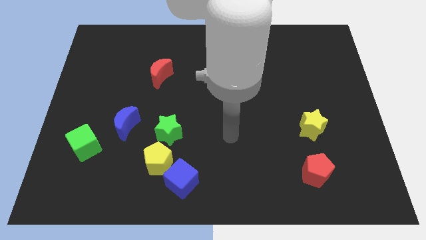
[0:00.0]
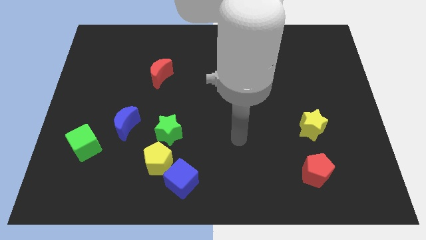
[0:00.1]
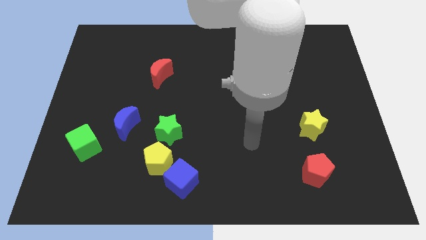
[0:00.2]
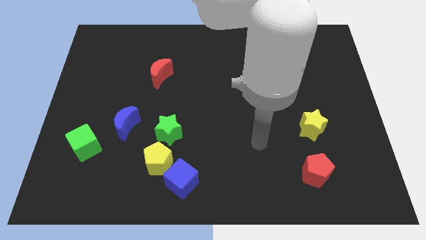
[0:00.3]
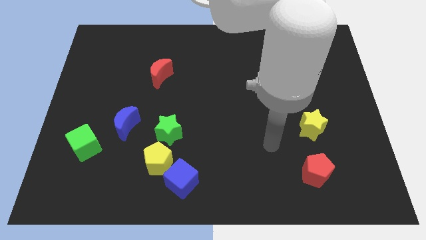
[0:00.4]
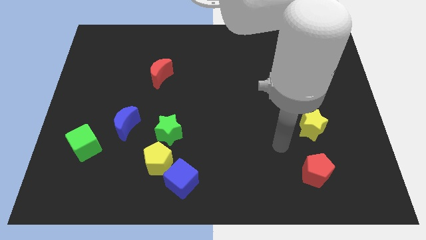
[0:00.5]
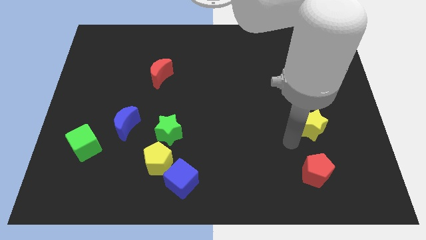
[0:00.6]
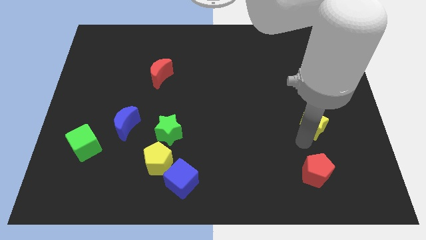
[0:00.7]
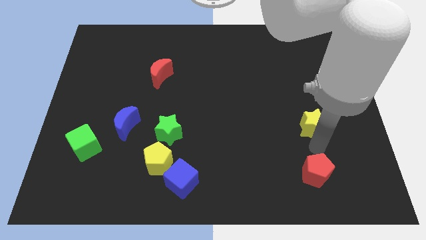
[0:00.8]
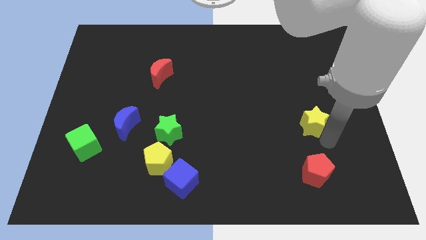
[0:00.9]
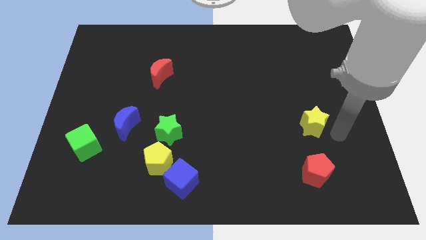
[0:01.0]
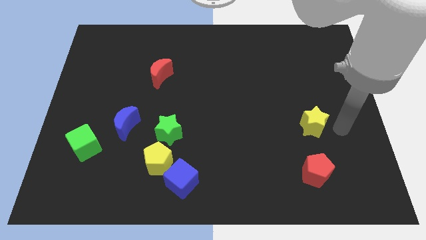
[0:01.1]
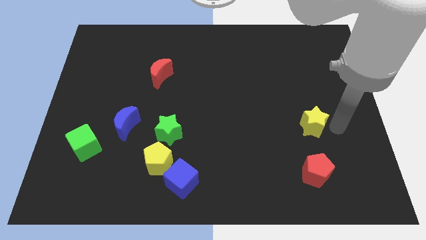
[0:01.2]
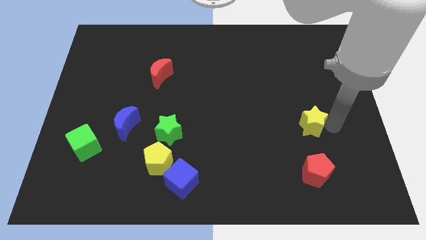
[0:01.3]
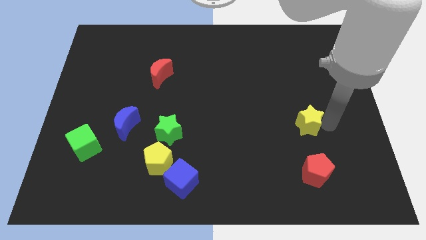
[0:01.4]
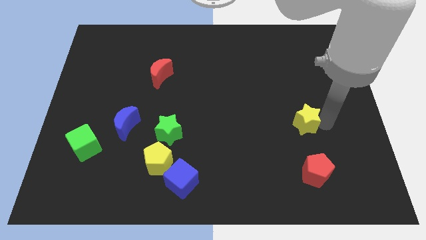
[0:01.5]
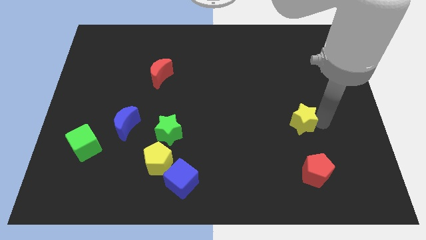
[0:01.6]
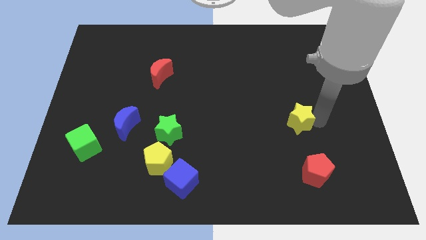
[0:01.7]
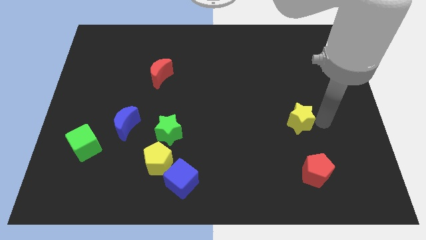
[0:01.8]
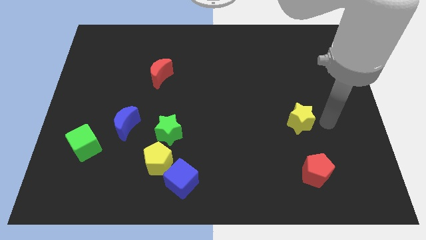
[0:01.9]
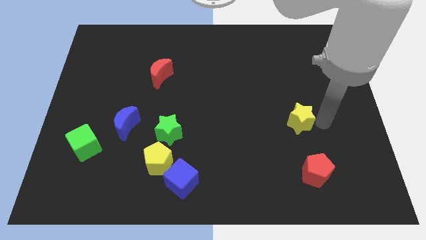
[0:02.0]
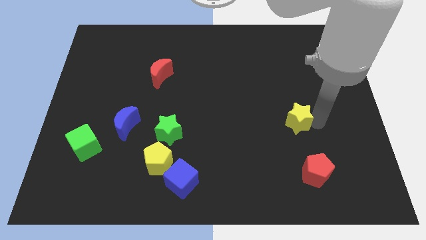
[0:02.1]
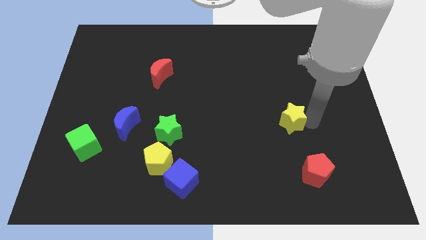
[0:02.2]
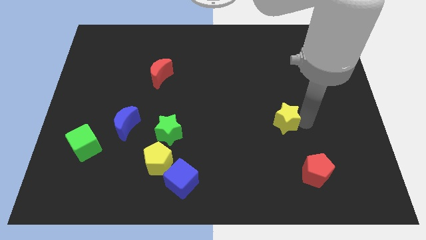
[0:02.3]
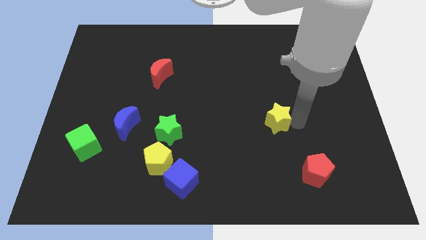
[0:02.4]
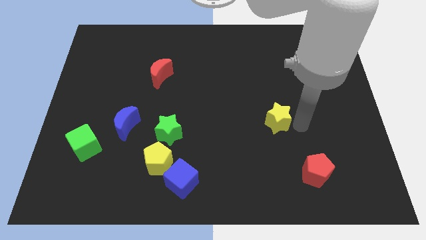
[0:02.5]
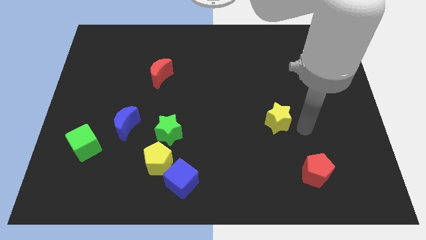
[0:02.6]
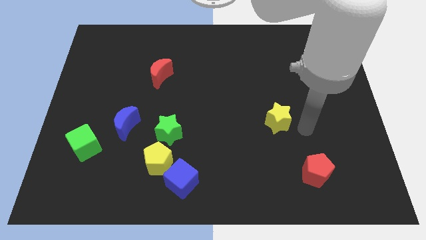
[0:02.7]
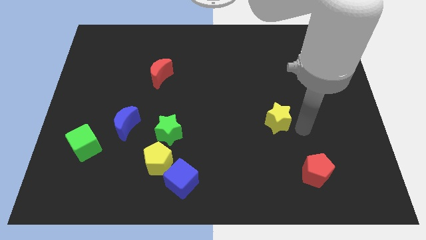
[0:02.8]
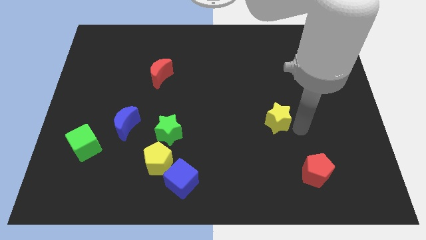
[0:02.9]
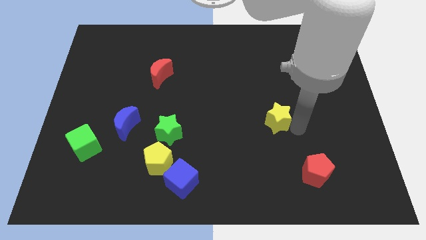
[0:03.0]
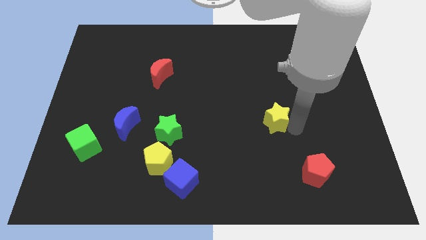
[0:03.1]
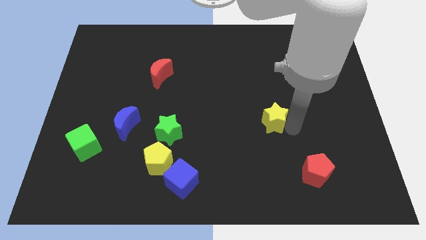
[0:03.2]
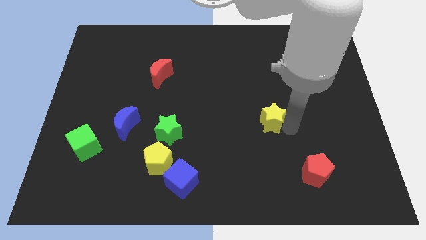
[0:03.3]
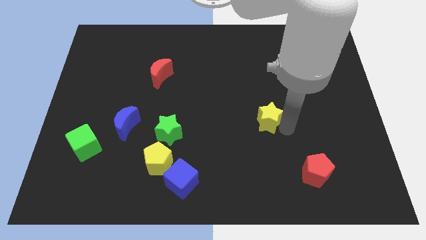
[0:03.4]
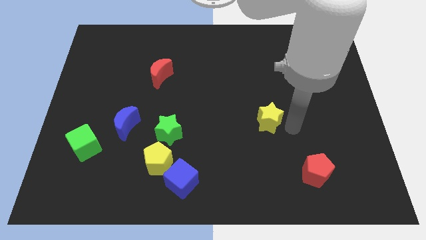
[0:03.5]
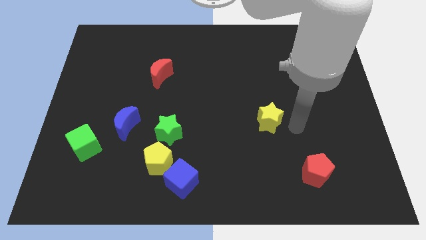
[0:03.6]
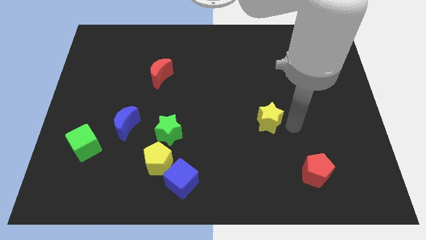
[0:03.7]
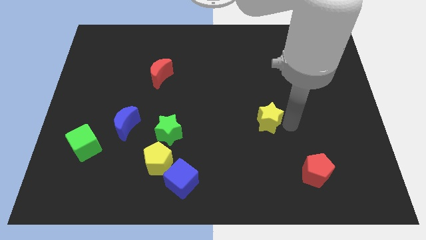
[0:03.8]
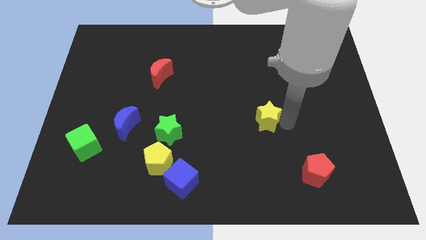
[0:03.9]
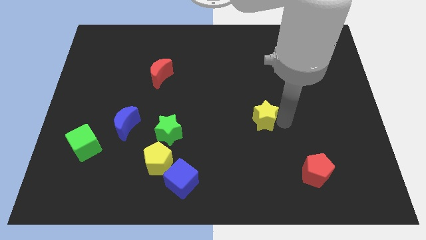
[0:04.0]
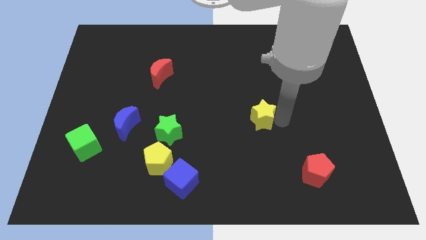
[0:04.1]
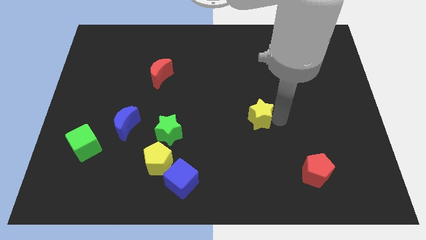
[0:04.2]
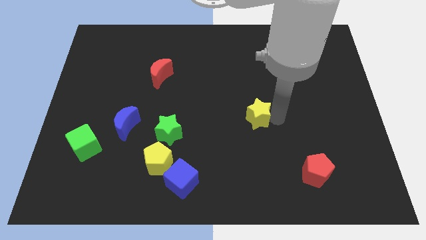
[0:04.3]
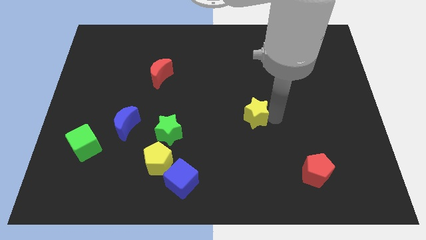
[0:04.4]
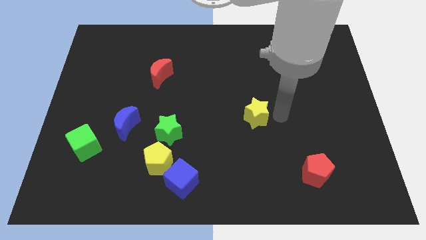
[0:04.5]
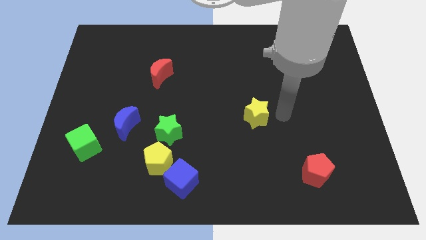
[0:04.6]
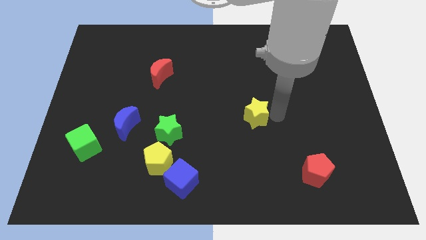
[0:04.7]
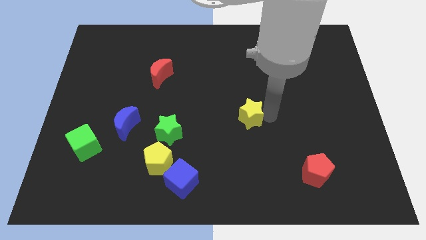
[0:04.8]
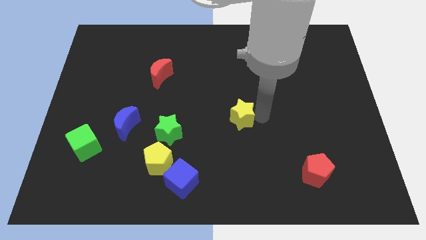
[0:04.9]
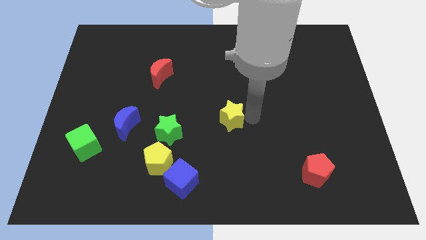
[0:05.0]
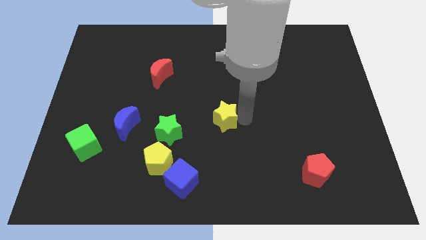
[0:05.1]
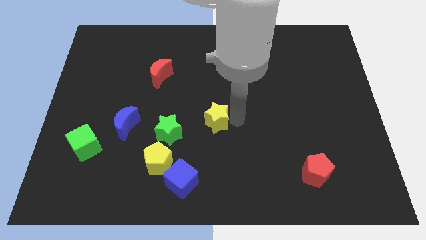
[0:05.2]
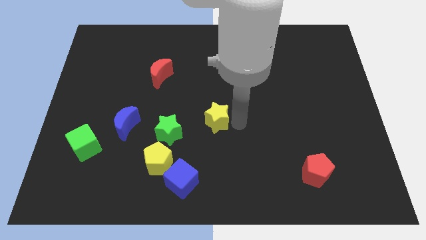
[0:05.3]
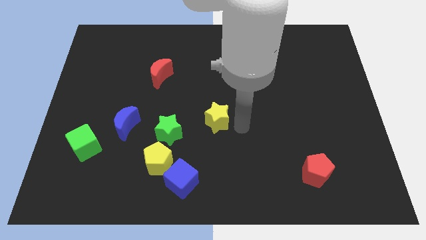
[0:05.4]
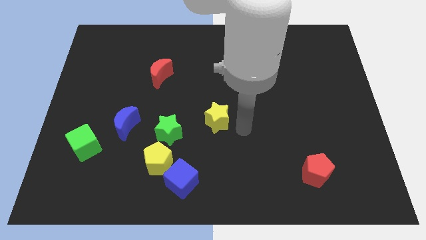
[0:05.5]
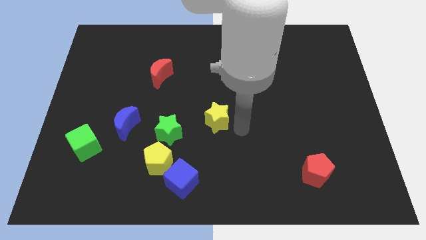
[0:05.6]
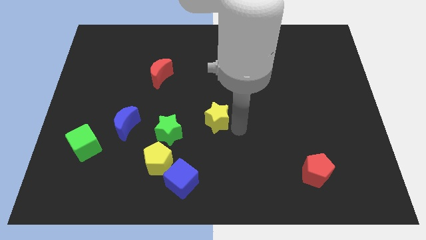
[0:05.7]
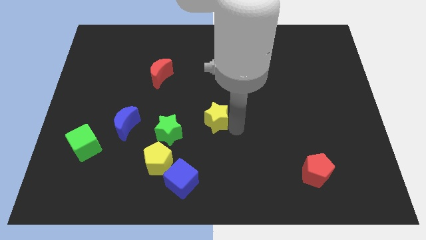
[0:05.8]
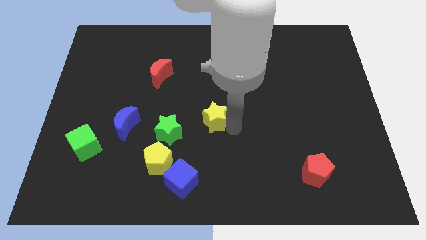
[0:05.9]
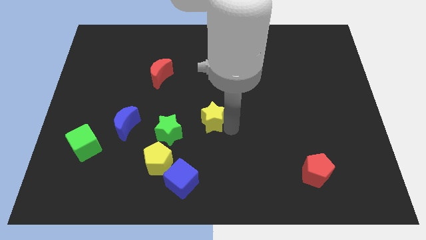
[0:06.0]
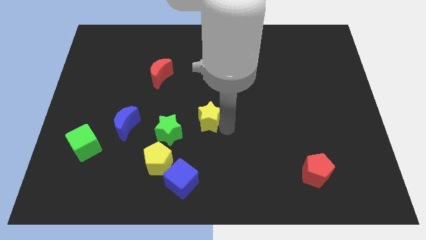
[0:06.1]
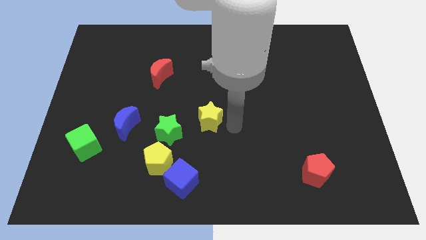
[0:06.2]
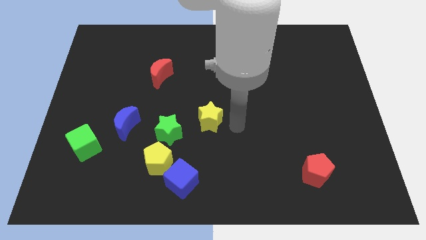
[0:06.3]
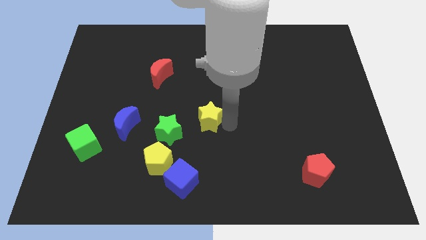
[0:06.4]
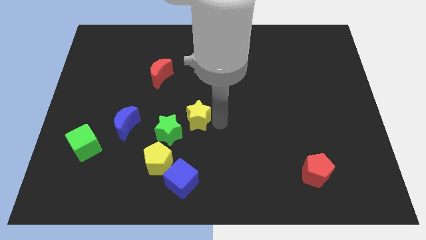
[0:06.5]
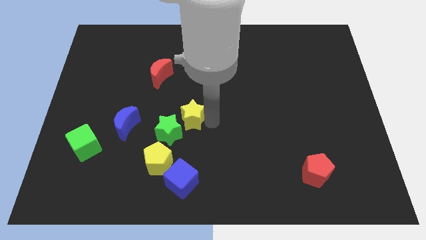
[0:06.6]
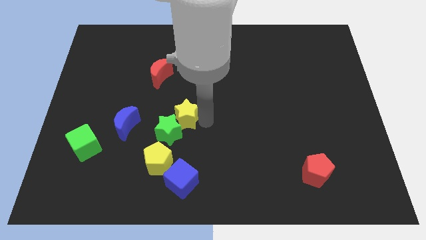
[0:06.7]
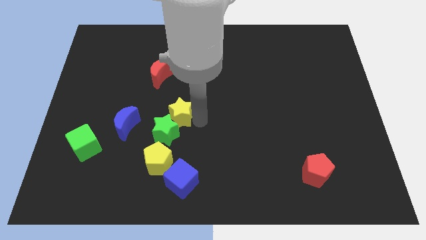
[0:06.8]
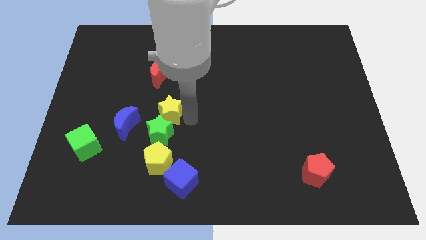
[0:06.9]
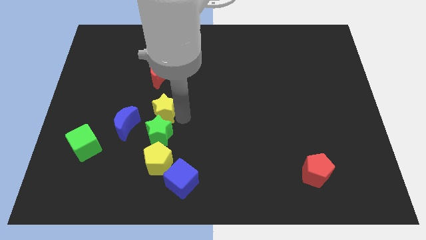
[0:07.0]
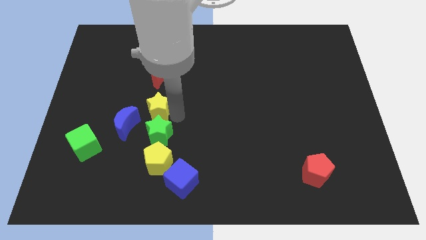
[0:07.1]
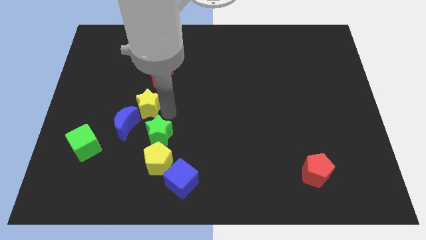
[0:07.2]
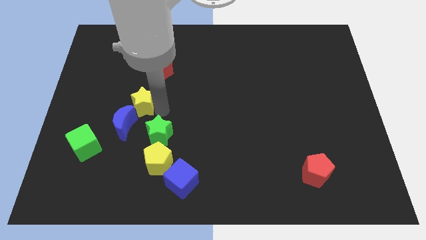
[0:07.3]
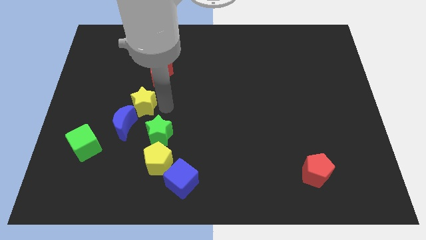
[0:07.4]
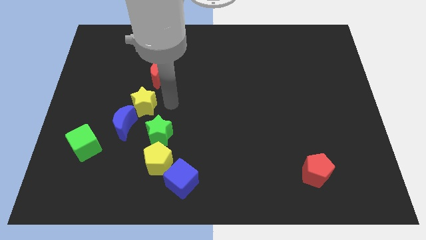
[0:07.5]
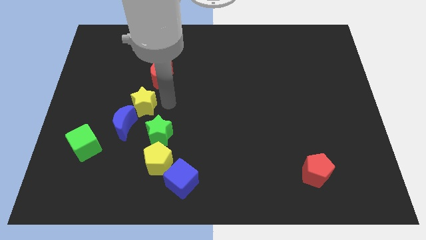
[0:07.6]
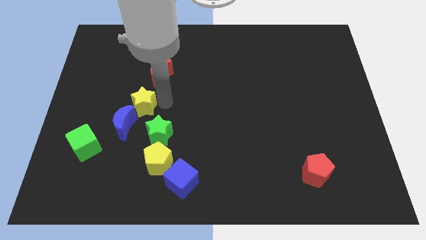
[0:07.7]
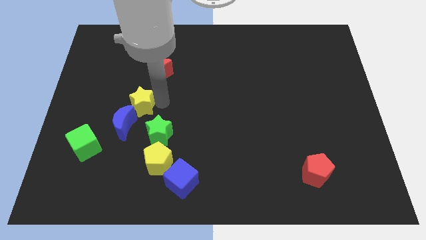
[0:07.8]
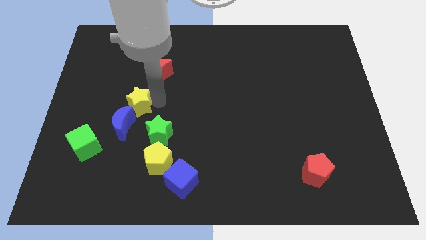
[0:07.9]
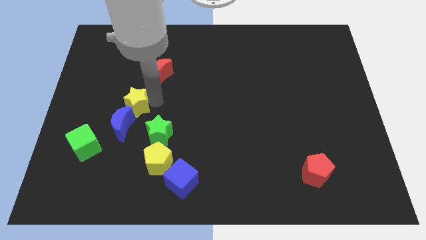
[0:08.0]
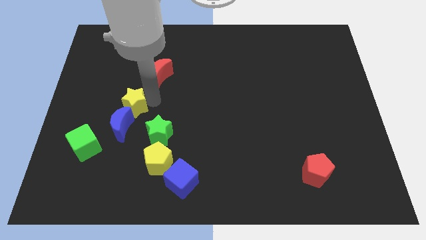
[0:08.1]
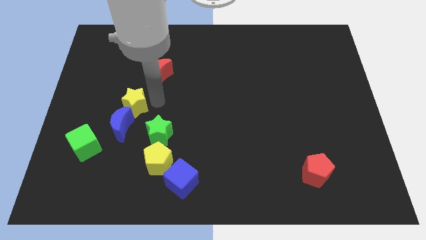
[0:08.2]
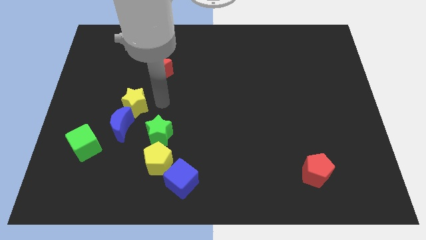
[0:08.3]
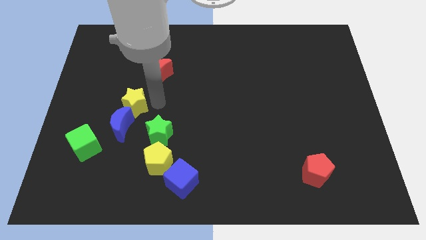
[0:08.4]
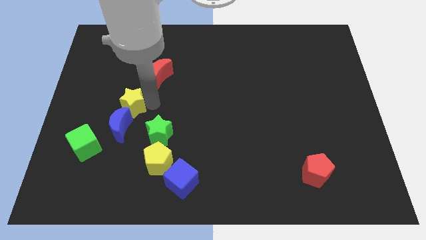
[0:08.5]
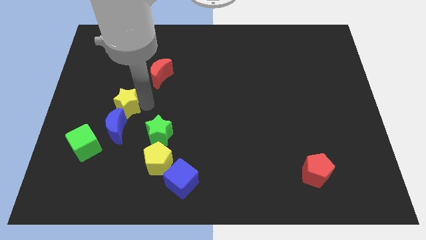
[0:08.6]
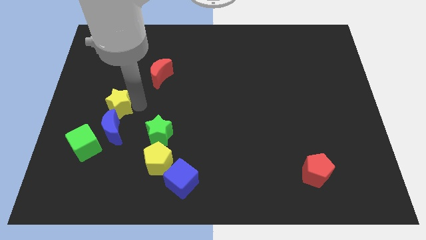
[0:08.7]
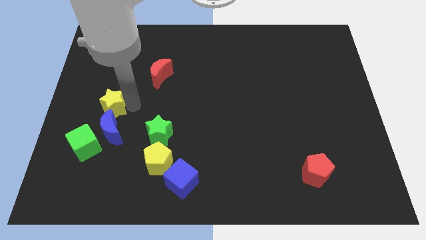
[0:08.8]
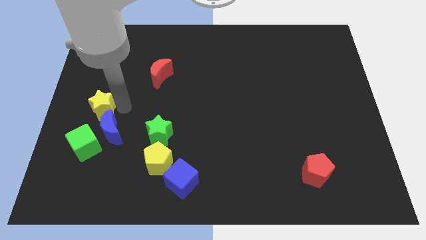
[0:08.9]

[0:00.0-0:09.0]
put the yellow star to the center left
